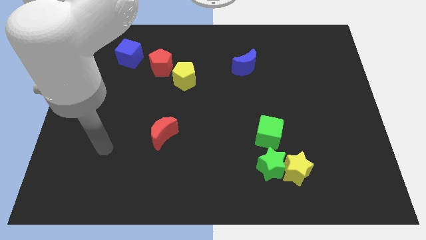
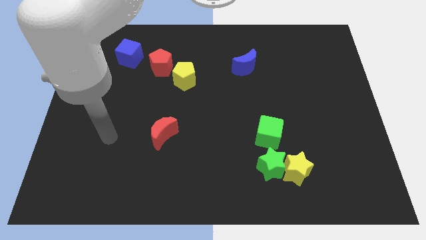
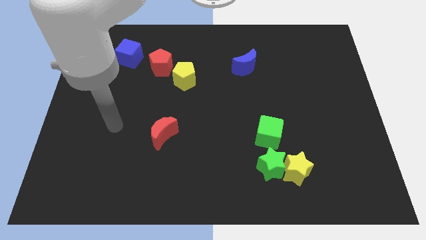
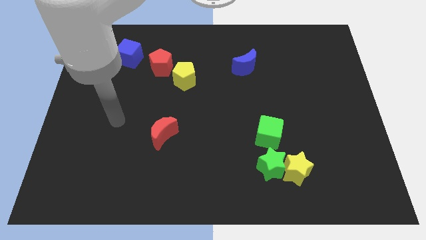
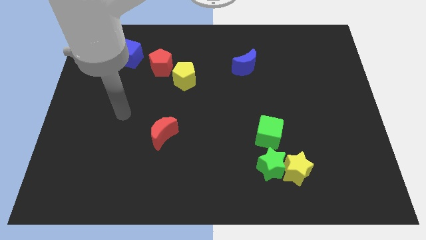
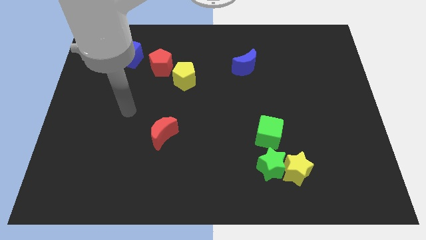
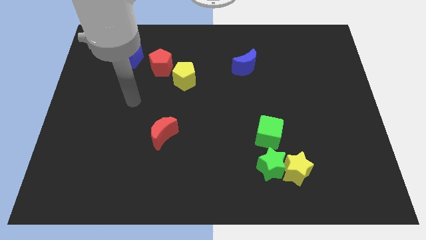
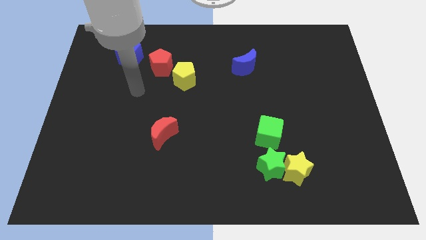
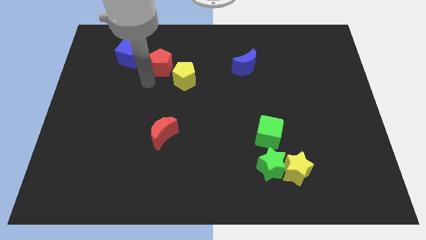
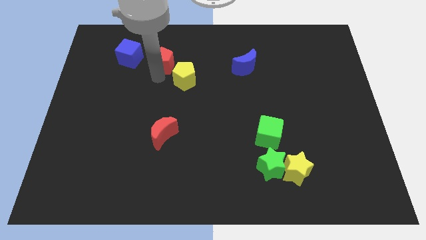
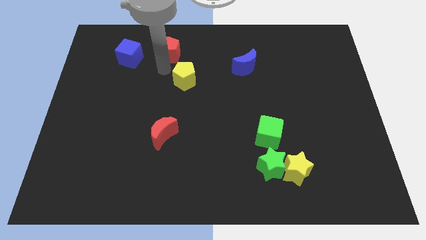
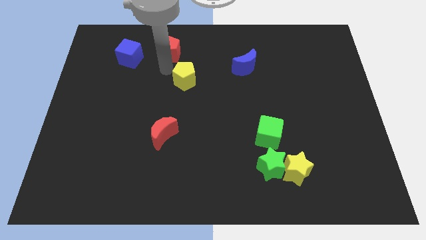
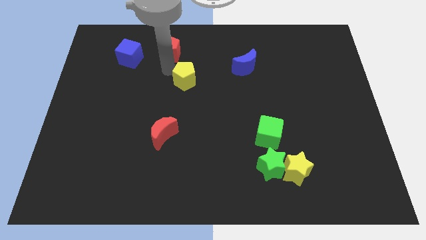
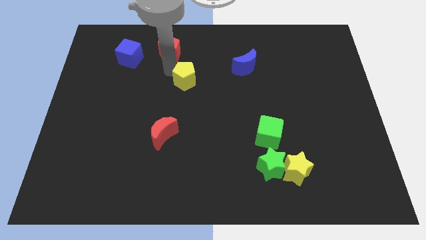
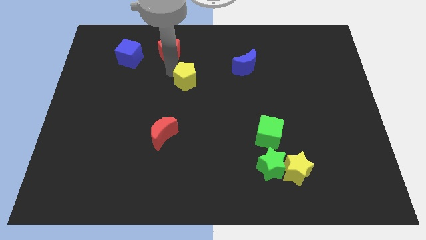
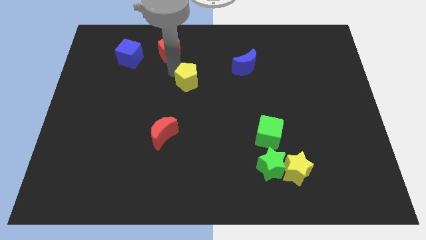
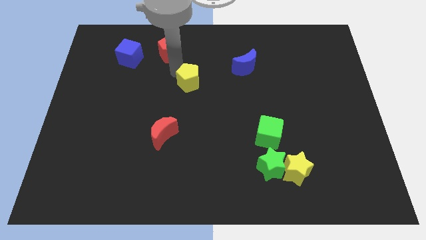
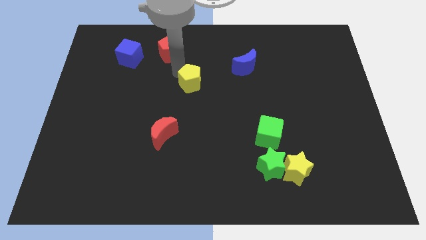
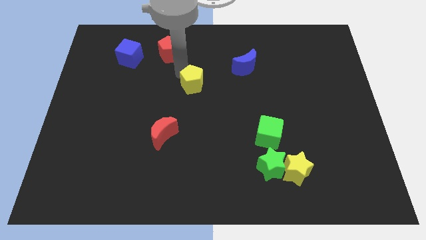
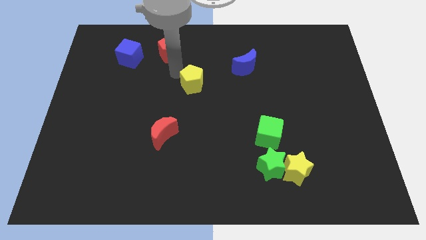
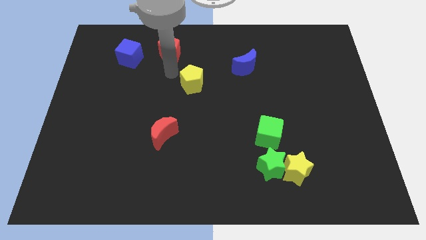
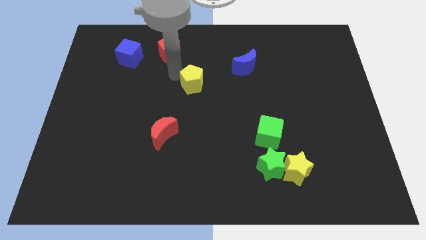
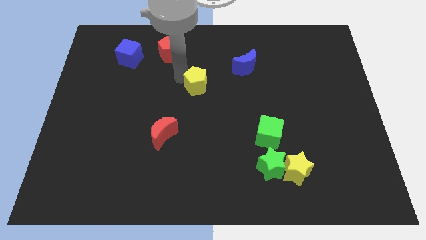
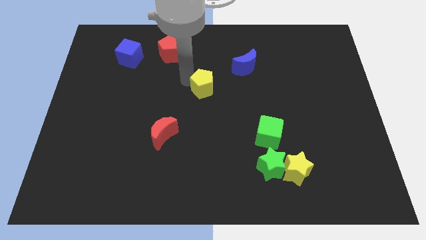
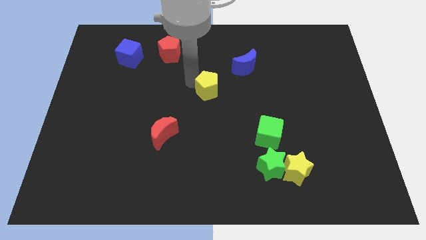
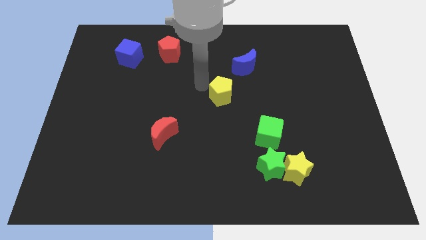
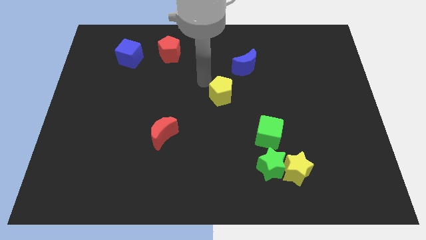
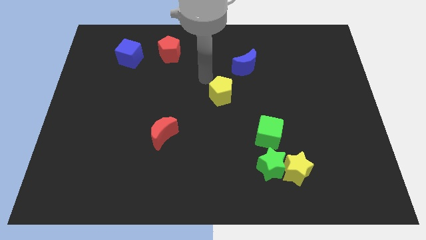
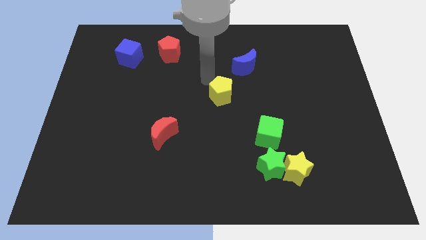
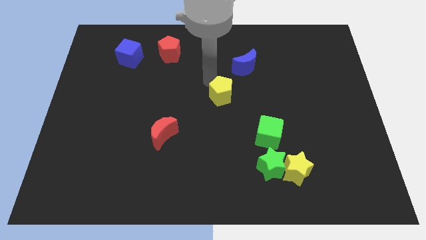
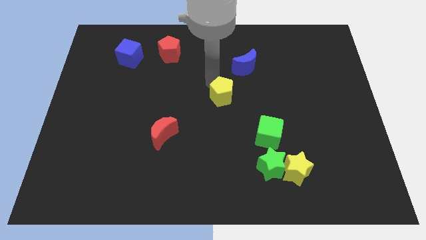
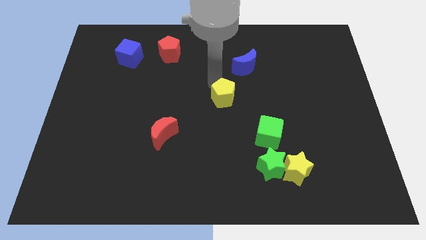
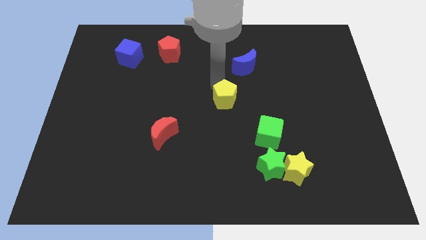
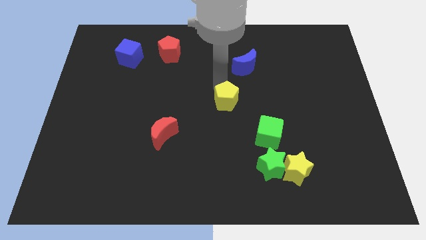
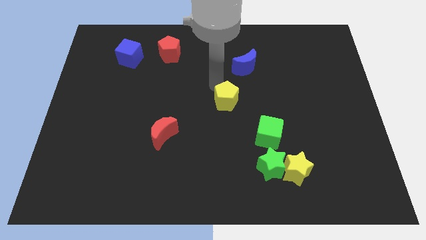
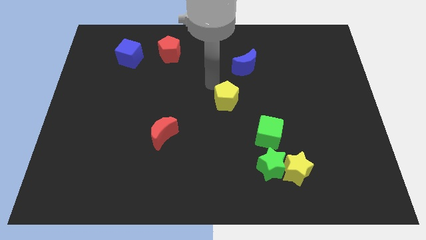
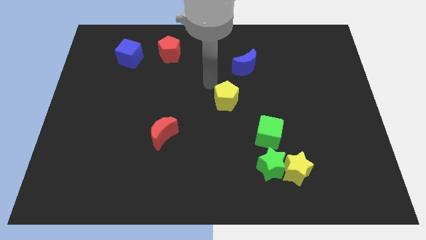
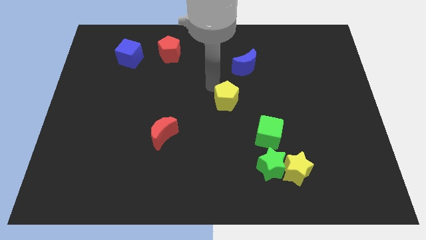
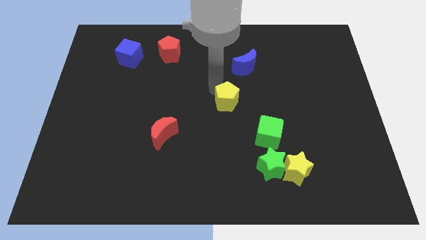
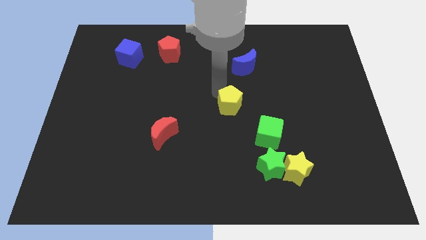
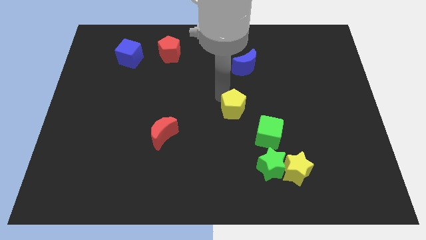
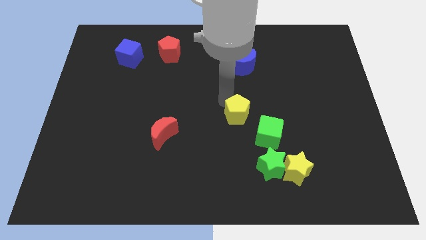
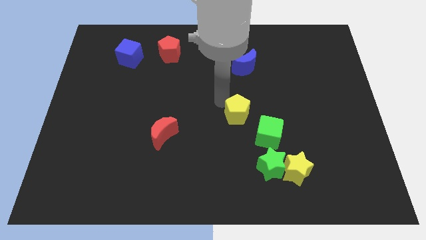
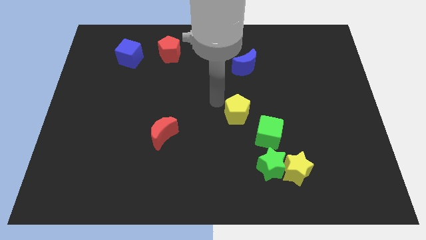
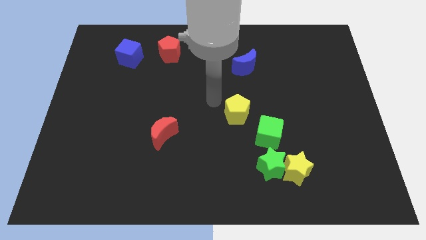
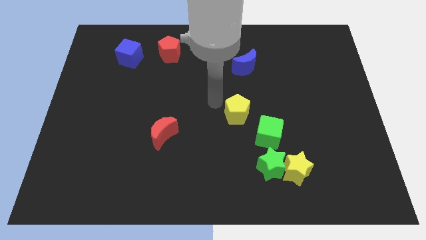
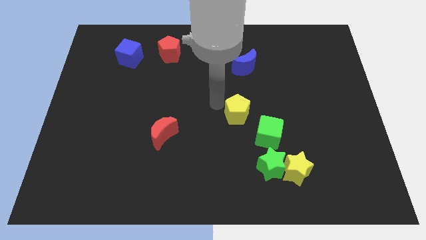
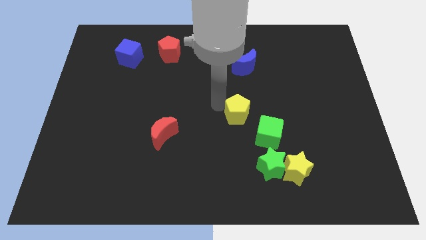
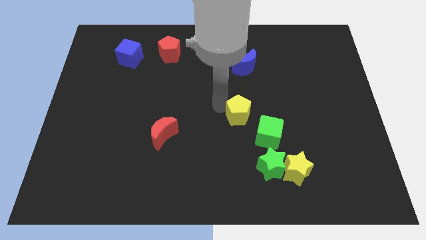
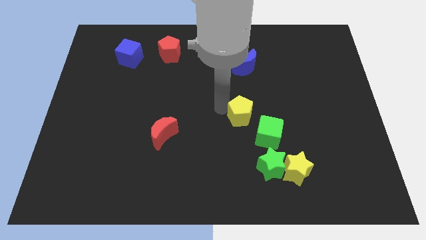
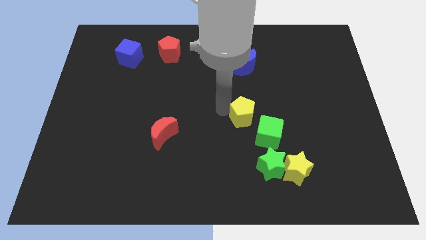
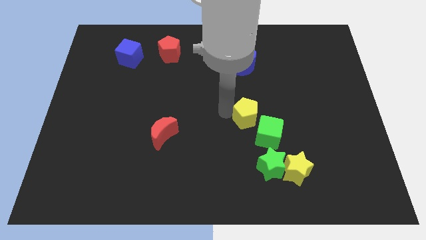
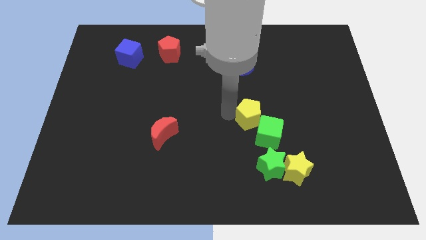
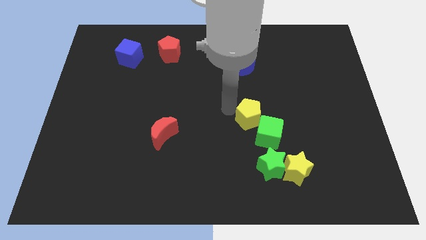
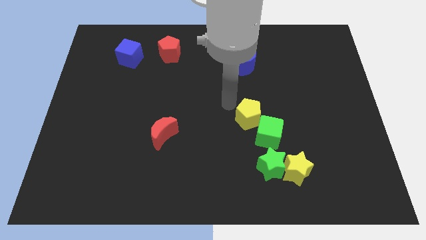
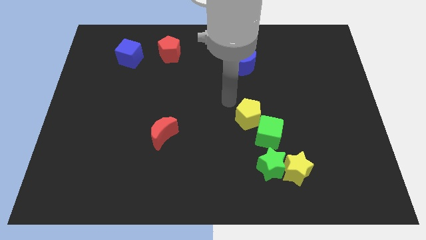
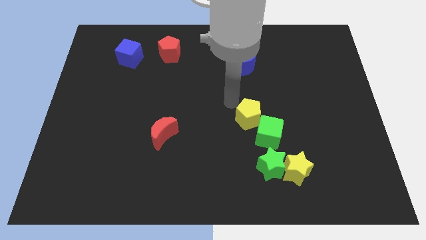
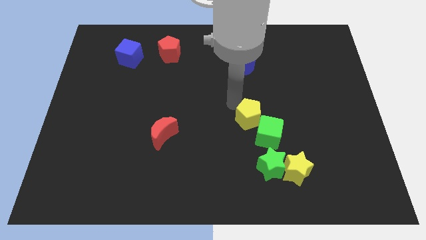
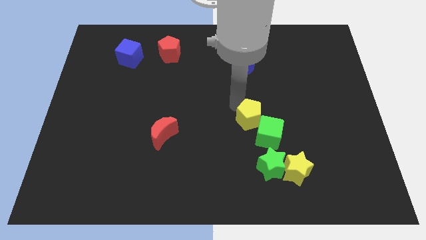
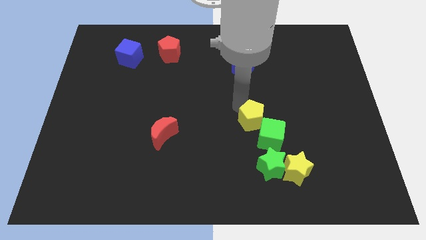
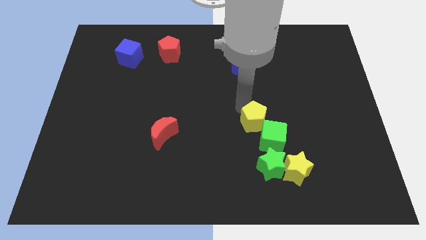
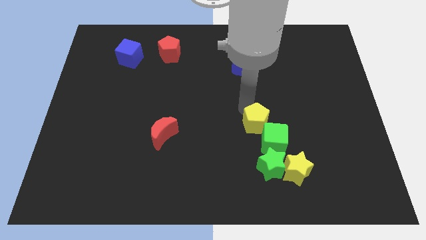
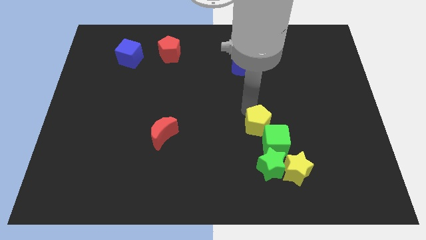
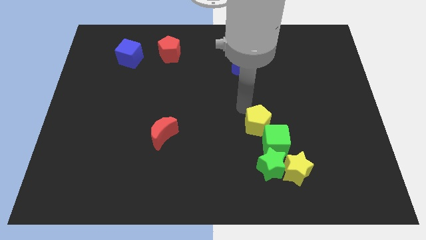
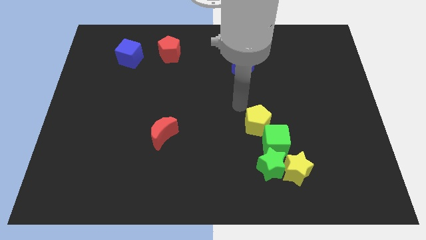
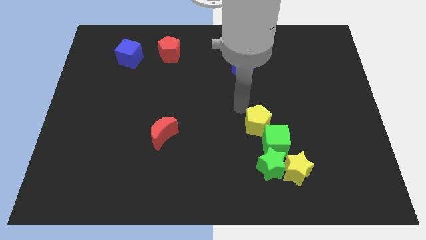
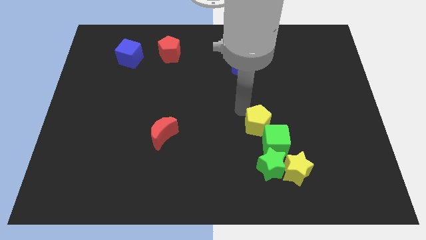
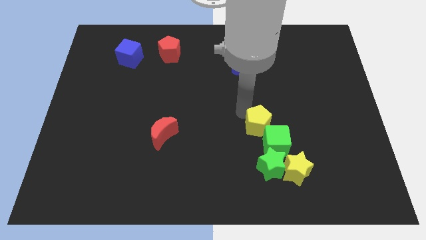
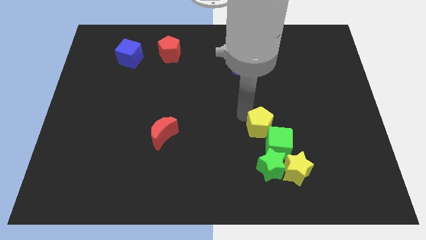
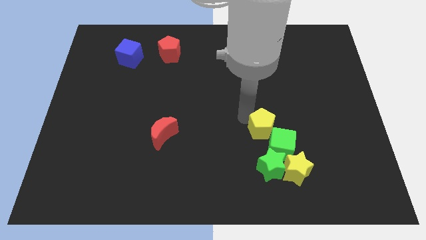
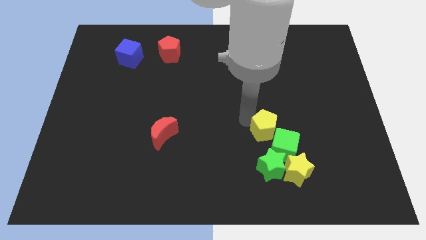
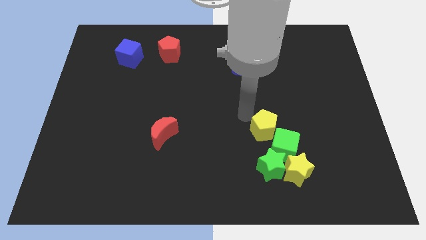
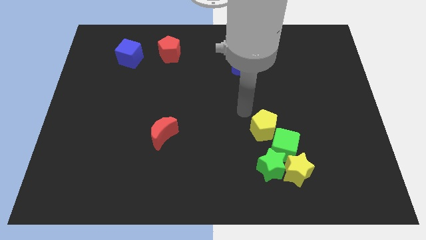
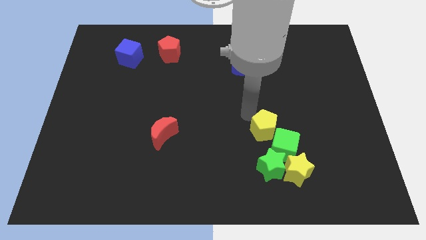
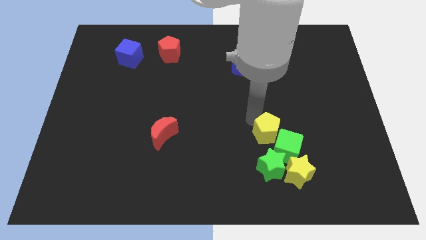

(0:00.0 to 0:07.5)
move the yellow pentagon next to the green cube
